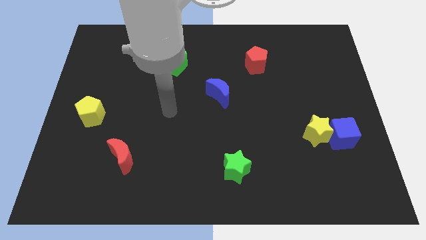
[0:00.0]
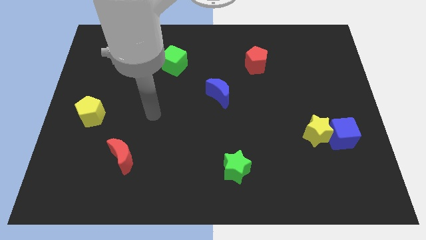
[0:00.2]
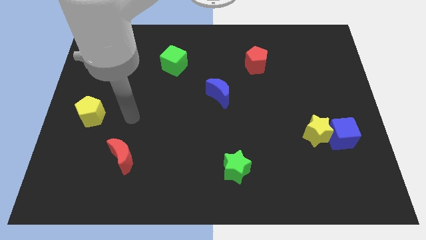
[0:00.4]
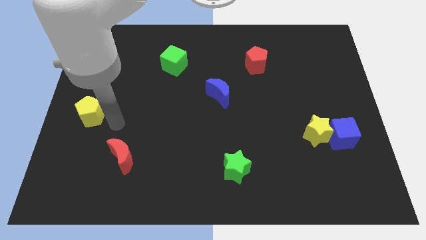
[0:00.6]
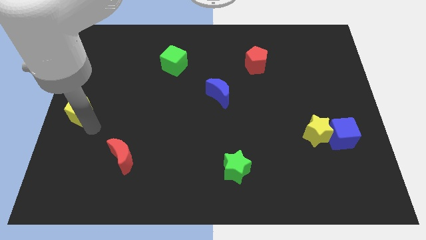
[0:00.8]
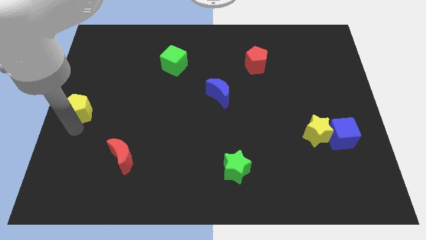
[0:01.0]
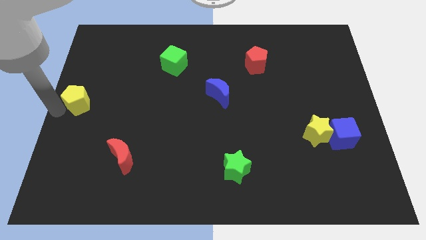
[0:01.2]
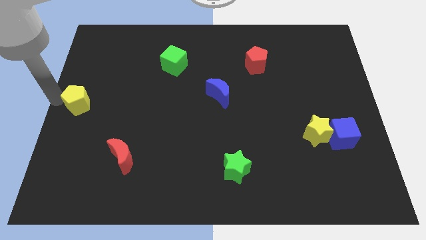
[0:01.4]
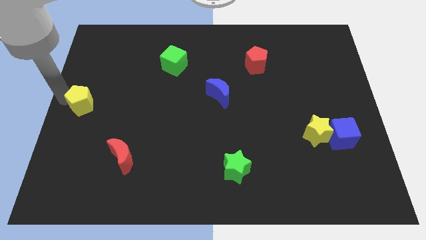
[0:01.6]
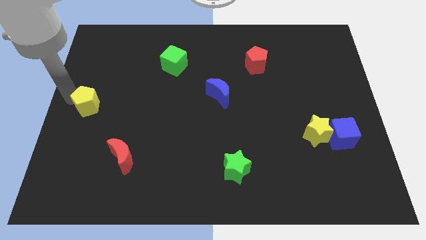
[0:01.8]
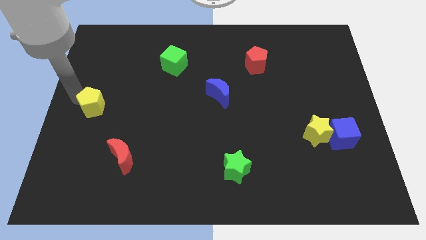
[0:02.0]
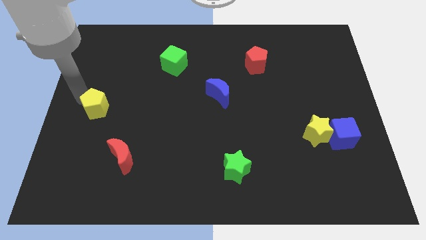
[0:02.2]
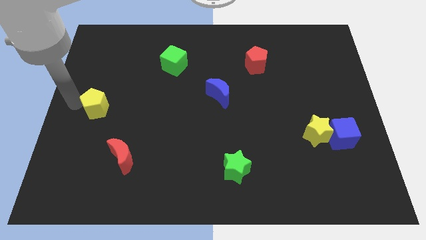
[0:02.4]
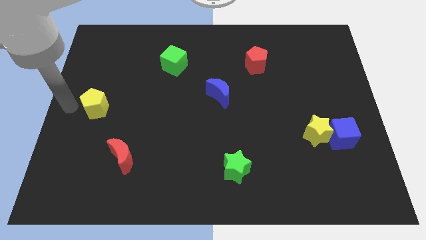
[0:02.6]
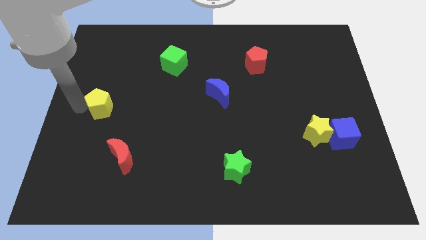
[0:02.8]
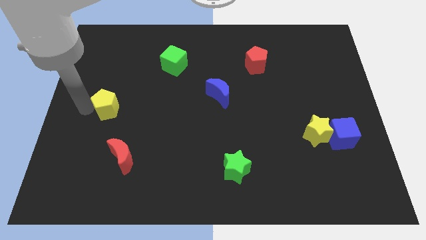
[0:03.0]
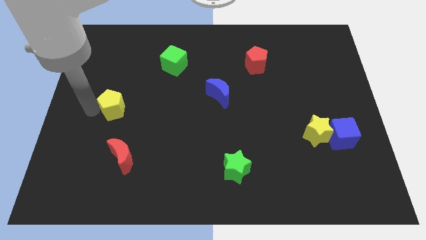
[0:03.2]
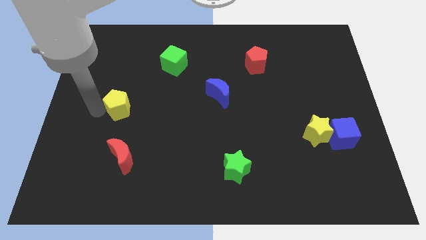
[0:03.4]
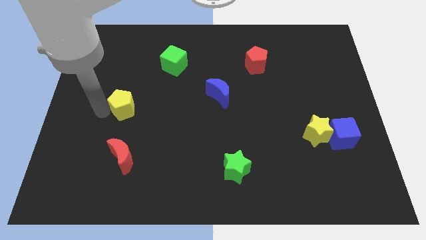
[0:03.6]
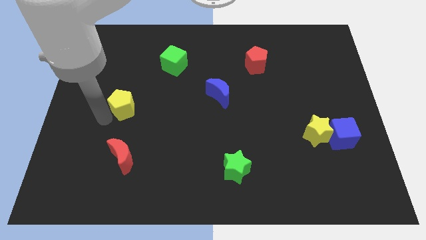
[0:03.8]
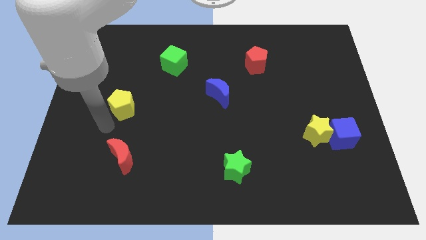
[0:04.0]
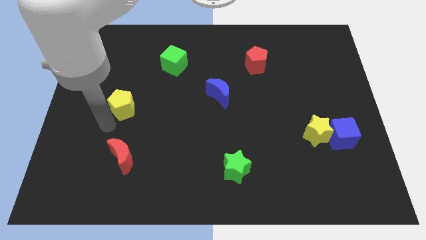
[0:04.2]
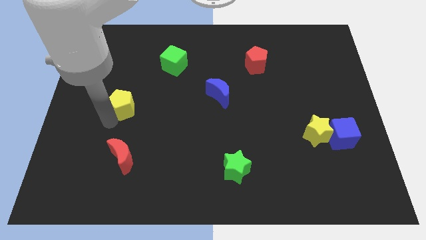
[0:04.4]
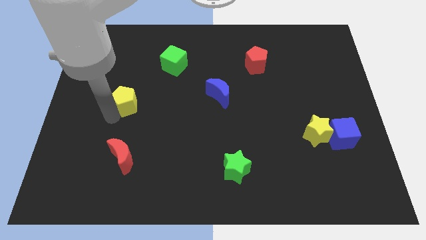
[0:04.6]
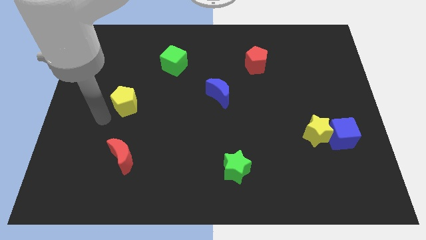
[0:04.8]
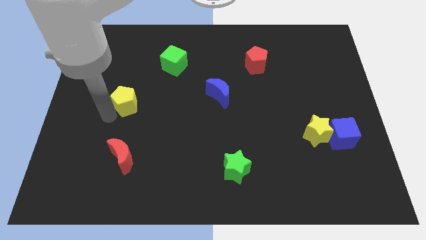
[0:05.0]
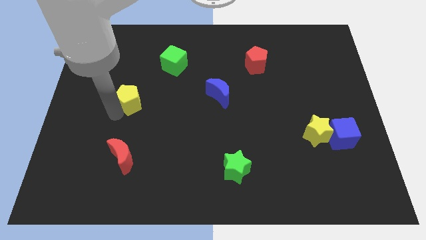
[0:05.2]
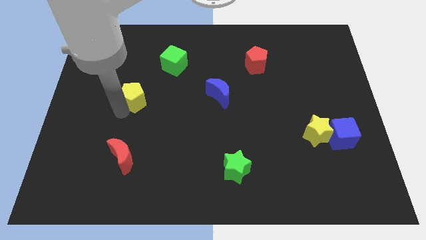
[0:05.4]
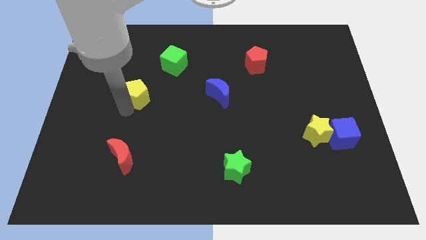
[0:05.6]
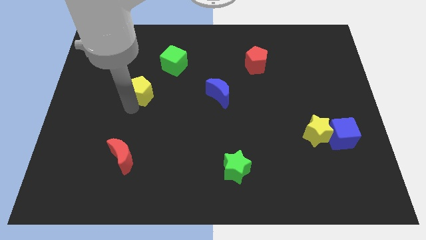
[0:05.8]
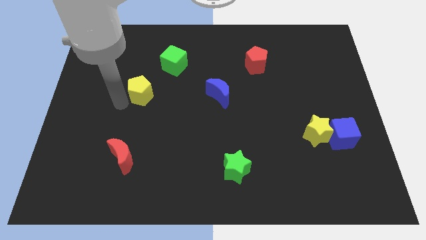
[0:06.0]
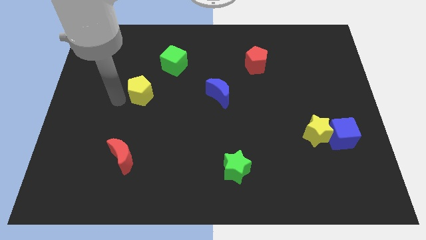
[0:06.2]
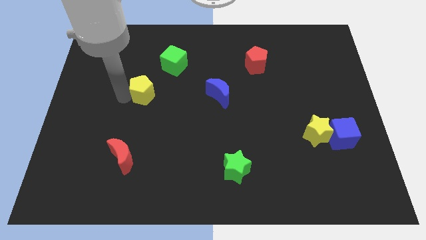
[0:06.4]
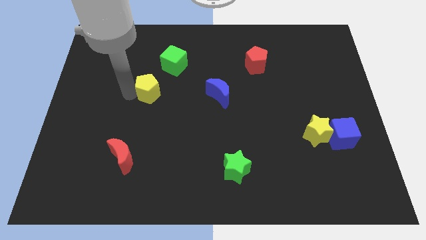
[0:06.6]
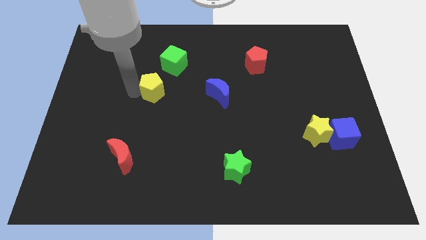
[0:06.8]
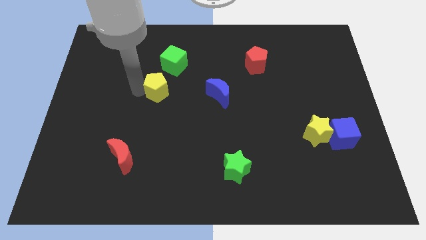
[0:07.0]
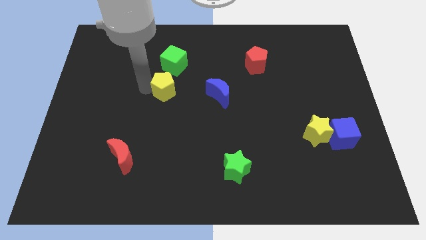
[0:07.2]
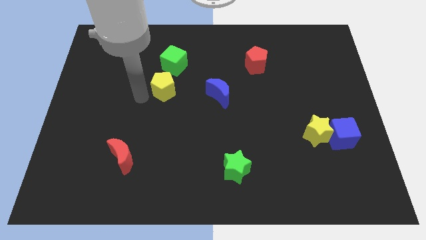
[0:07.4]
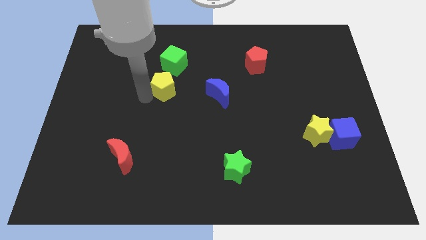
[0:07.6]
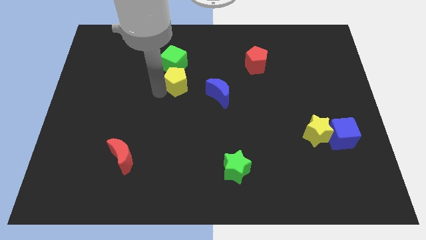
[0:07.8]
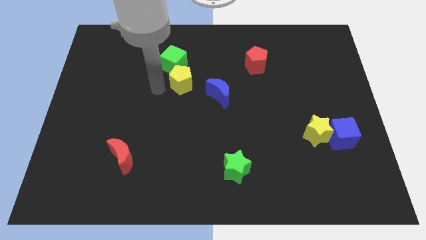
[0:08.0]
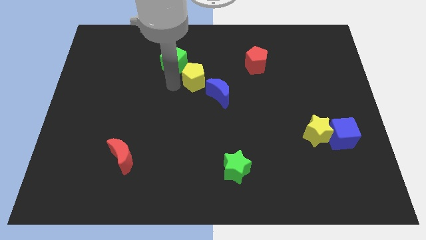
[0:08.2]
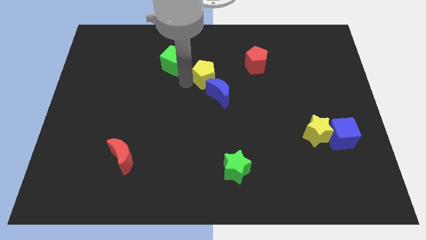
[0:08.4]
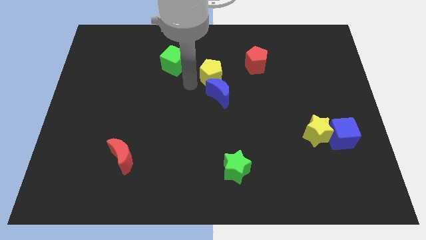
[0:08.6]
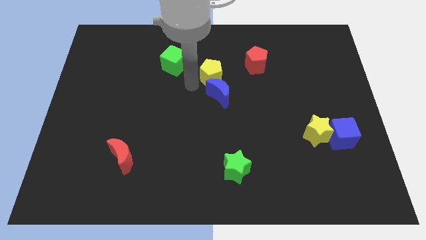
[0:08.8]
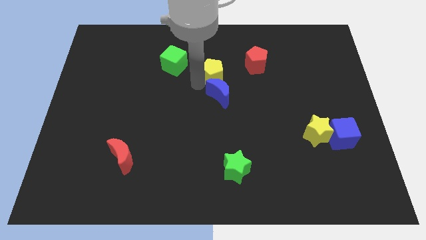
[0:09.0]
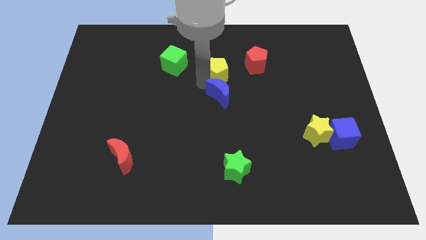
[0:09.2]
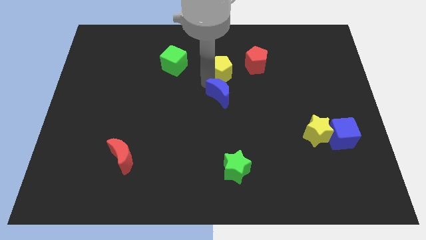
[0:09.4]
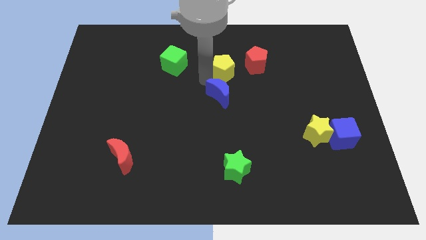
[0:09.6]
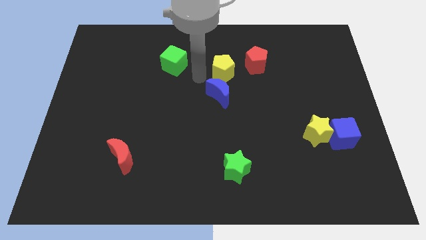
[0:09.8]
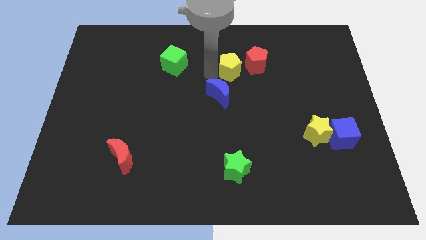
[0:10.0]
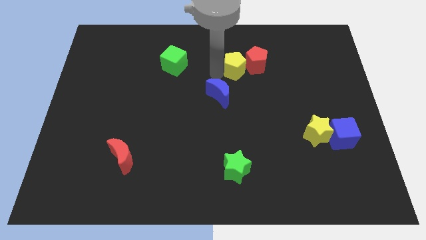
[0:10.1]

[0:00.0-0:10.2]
put the yellow pentagon to the red pentagon

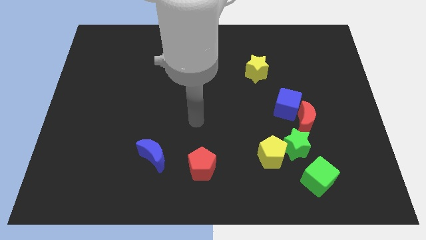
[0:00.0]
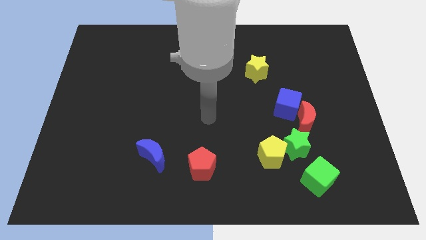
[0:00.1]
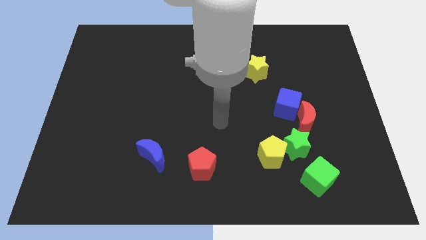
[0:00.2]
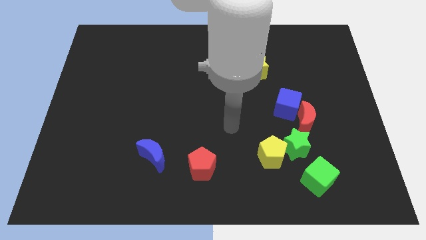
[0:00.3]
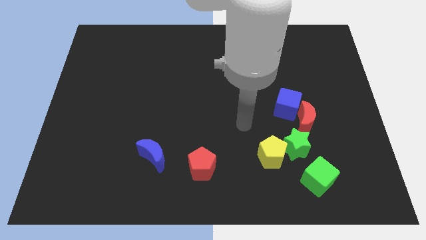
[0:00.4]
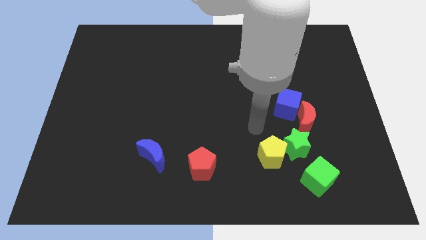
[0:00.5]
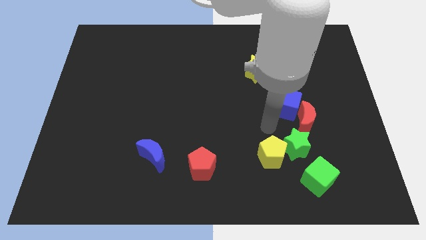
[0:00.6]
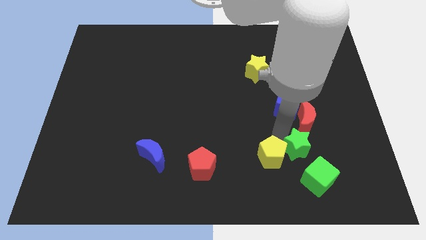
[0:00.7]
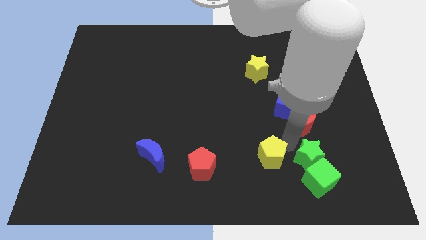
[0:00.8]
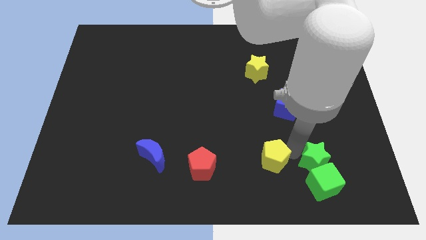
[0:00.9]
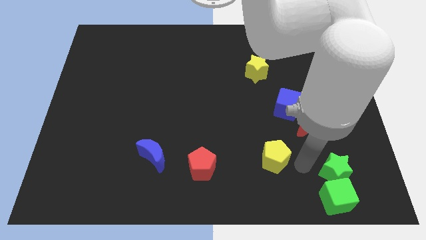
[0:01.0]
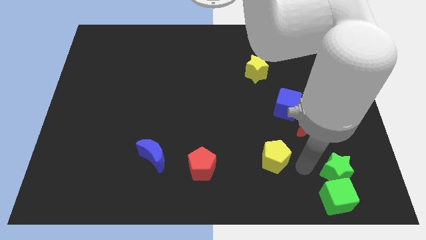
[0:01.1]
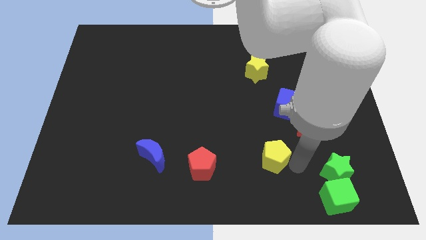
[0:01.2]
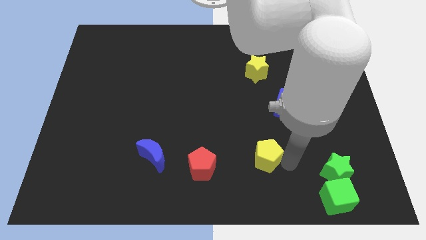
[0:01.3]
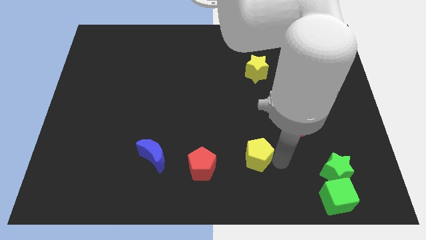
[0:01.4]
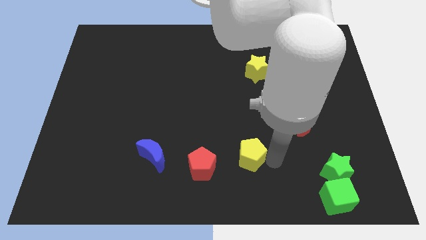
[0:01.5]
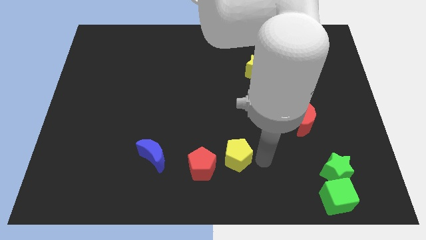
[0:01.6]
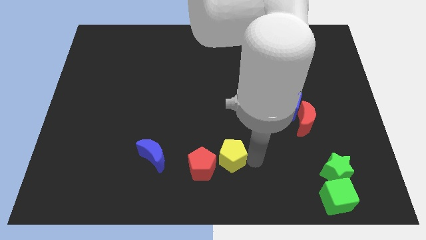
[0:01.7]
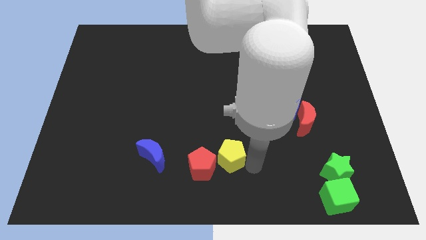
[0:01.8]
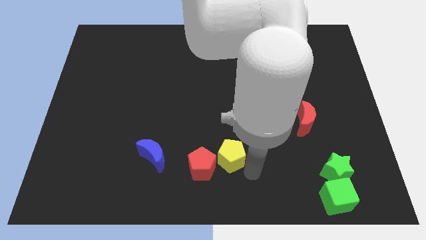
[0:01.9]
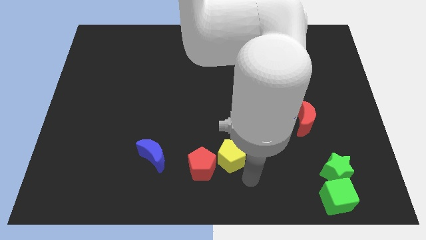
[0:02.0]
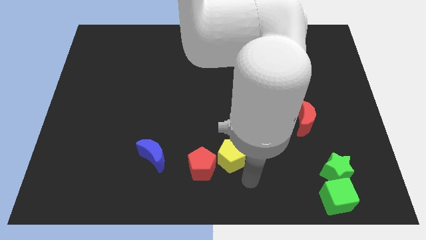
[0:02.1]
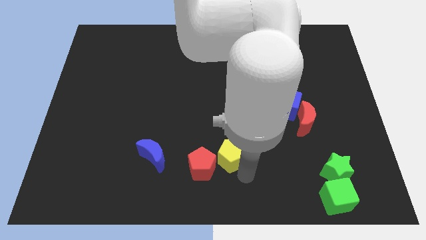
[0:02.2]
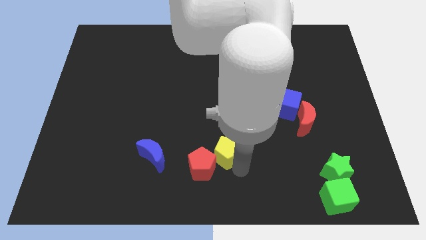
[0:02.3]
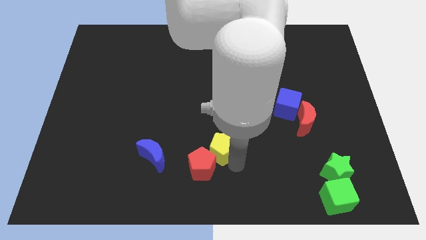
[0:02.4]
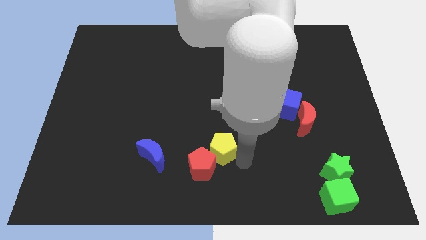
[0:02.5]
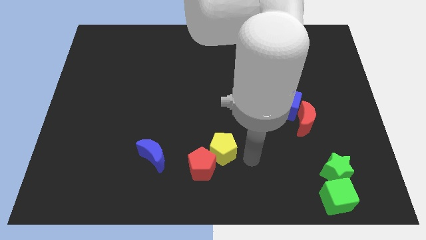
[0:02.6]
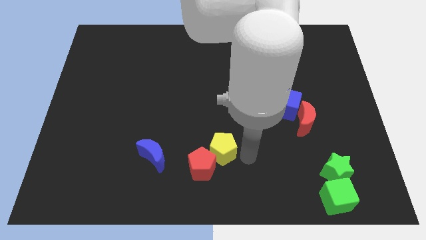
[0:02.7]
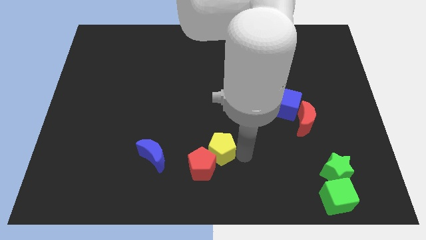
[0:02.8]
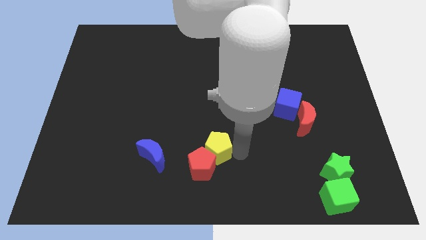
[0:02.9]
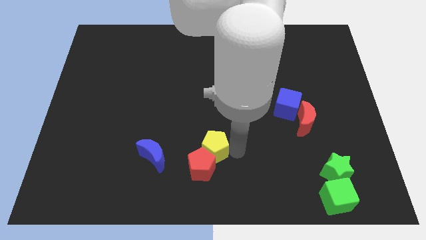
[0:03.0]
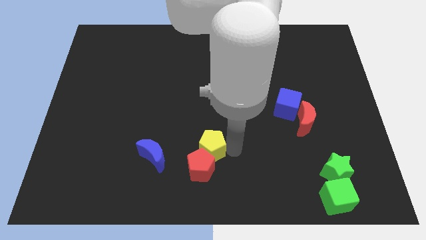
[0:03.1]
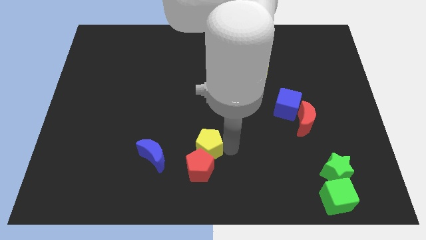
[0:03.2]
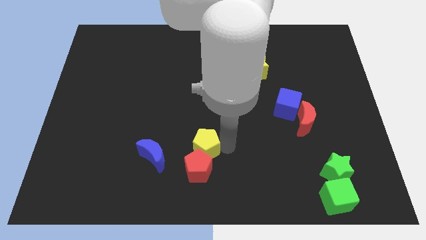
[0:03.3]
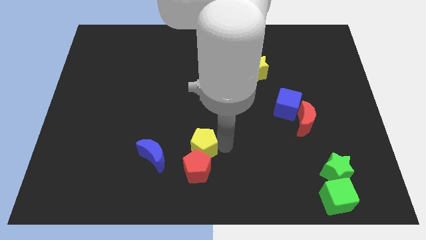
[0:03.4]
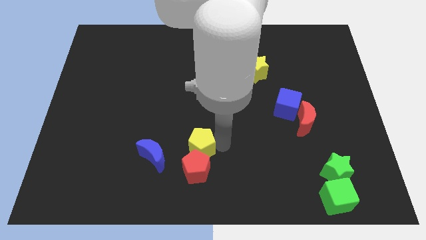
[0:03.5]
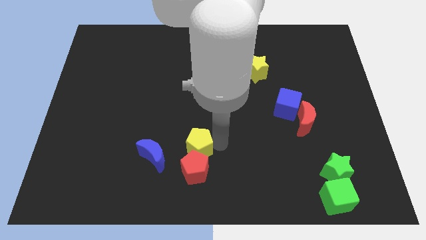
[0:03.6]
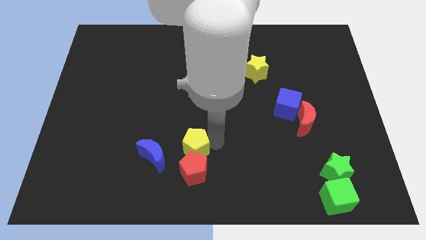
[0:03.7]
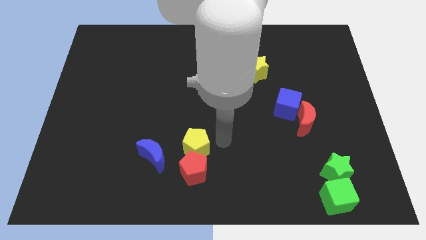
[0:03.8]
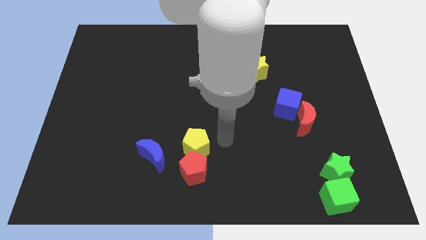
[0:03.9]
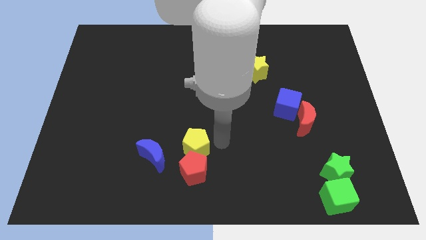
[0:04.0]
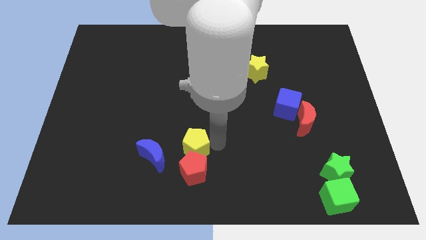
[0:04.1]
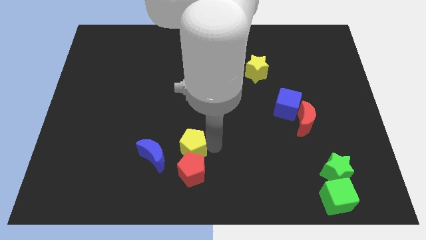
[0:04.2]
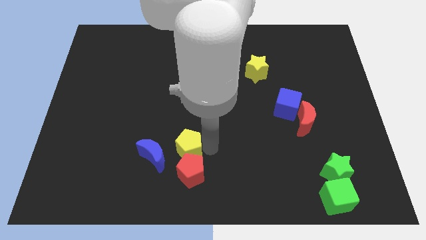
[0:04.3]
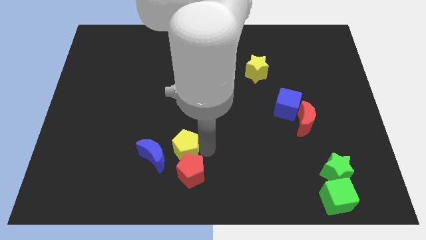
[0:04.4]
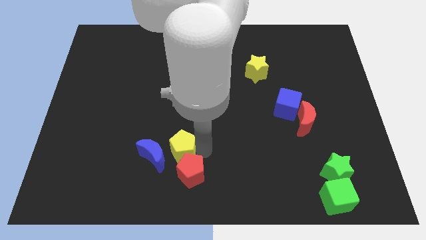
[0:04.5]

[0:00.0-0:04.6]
push the yellow pentagon next to the blue moon
